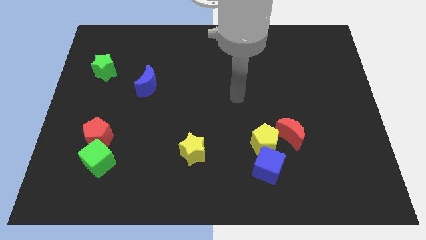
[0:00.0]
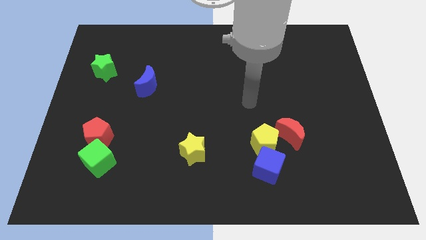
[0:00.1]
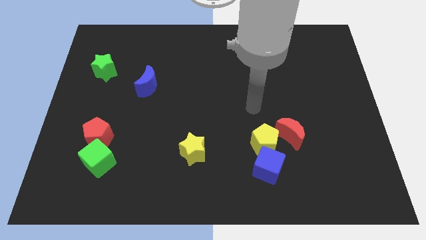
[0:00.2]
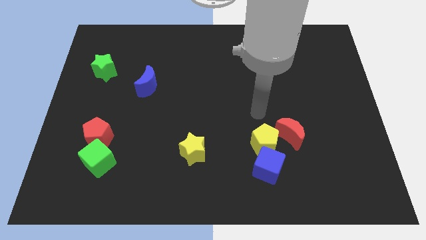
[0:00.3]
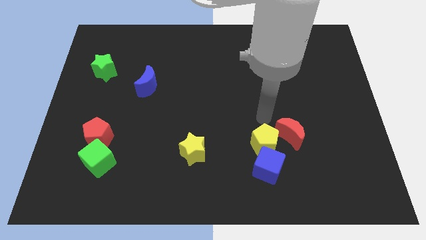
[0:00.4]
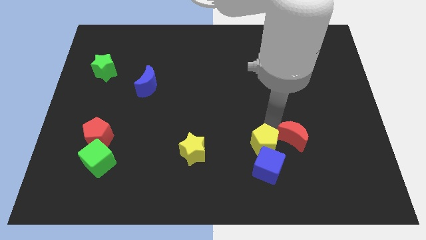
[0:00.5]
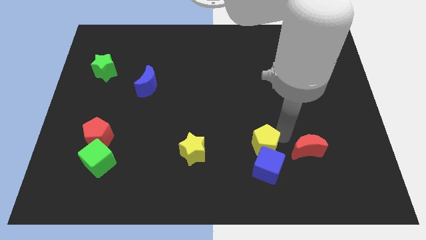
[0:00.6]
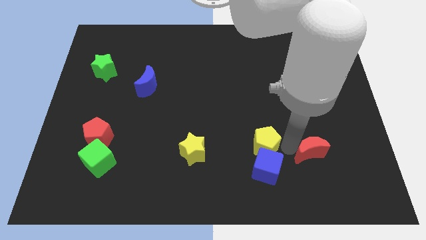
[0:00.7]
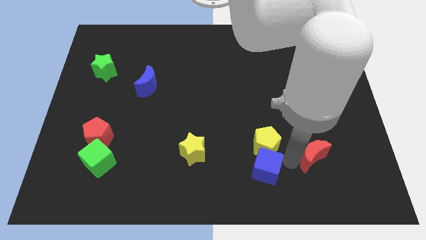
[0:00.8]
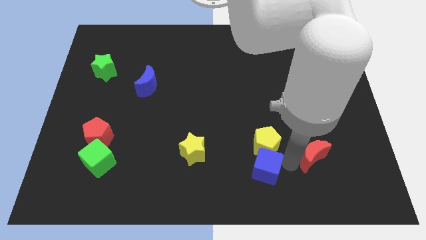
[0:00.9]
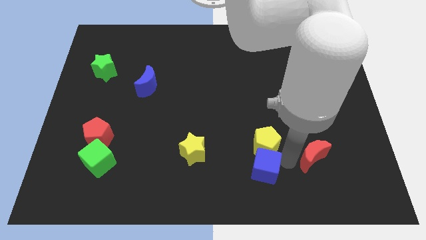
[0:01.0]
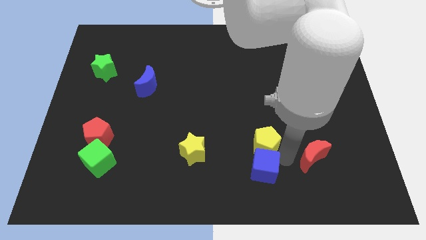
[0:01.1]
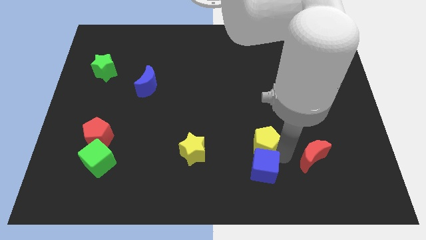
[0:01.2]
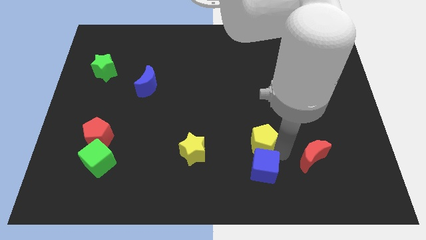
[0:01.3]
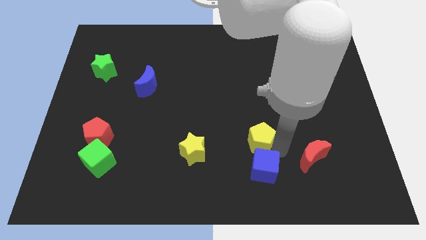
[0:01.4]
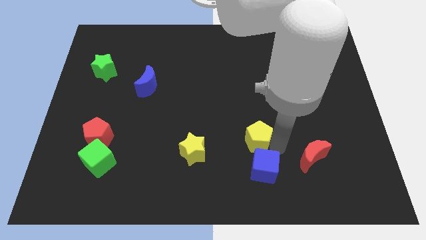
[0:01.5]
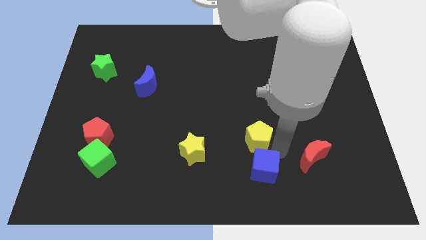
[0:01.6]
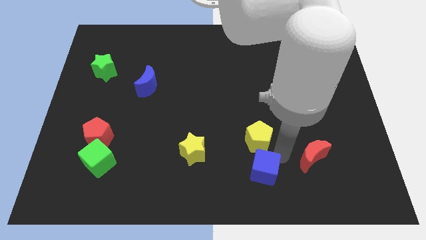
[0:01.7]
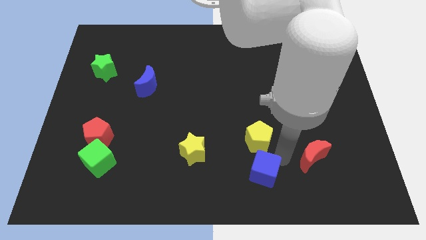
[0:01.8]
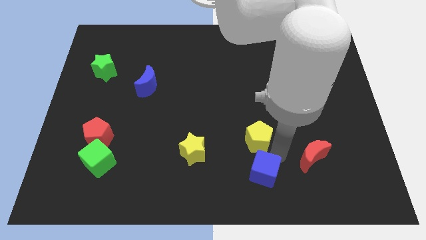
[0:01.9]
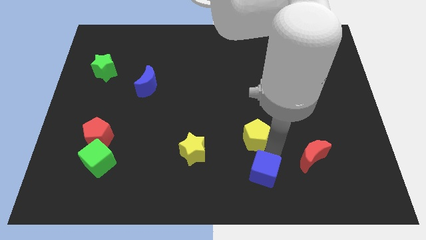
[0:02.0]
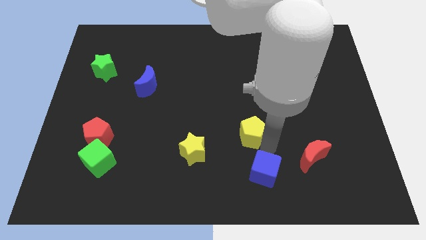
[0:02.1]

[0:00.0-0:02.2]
move the yellow pentagon away from the blue cube and red moon

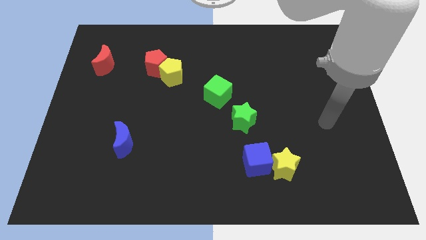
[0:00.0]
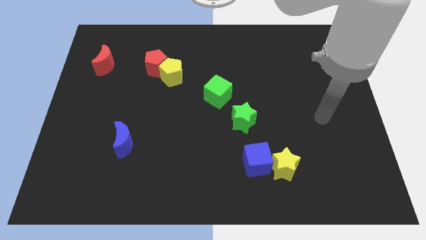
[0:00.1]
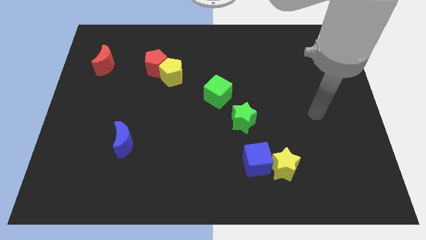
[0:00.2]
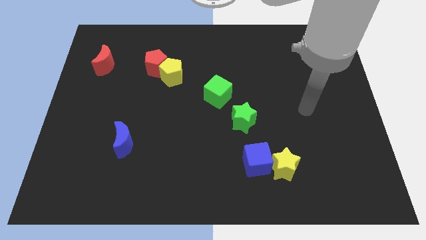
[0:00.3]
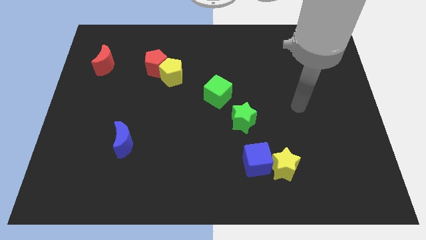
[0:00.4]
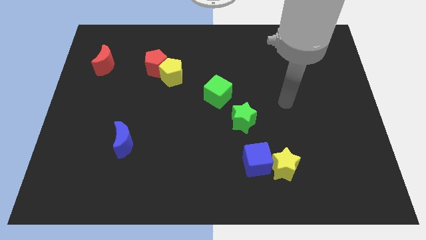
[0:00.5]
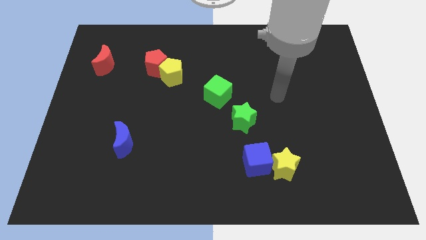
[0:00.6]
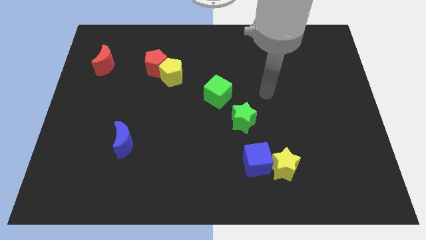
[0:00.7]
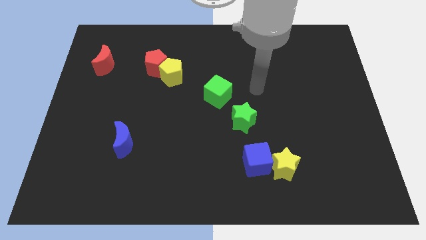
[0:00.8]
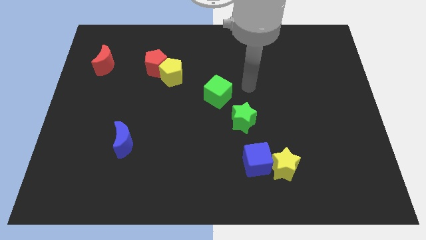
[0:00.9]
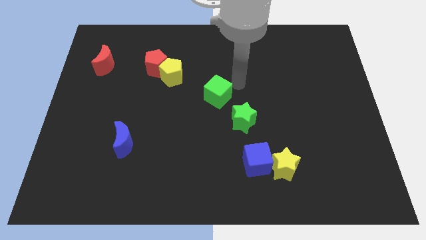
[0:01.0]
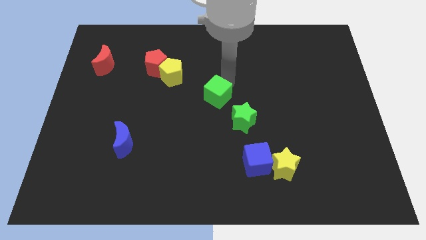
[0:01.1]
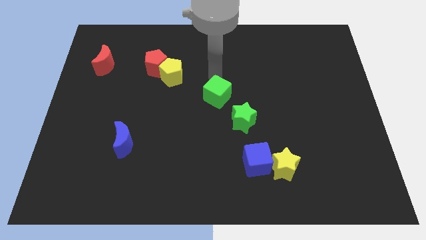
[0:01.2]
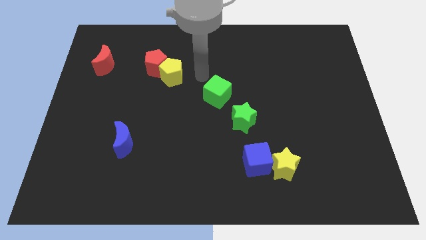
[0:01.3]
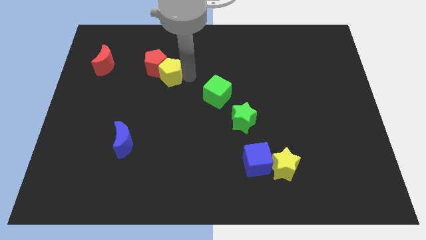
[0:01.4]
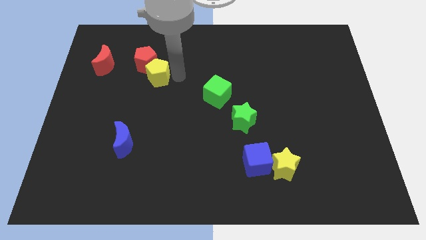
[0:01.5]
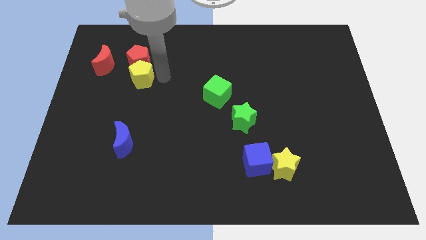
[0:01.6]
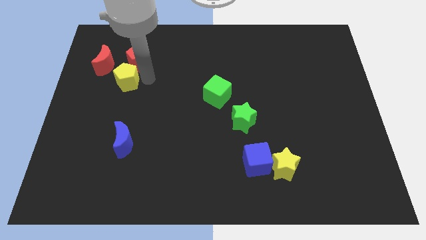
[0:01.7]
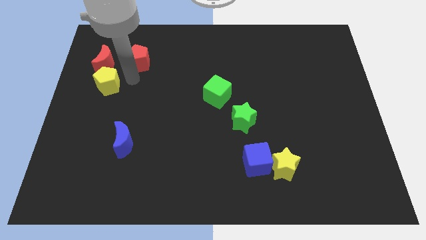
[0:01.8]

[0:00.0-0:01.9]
pull the red pentagon apart from the yellow pentagon

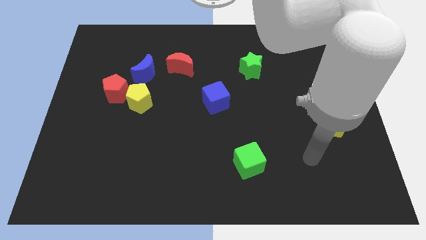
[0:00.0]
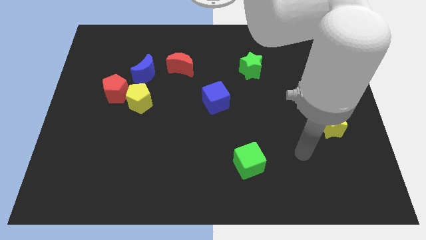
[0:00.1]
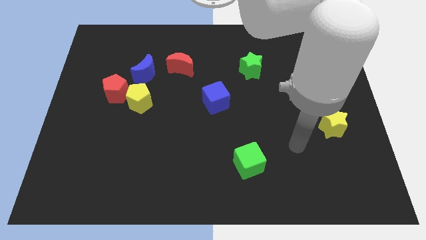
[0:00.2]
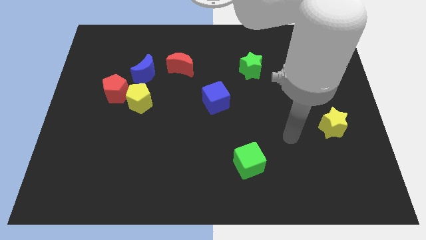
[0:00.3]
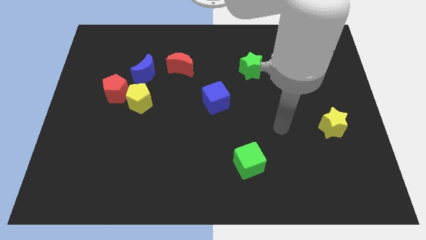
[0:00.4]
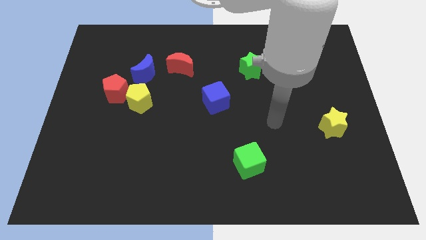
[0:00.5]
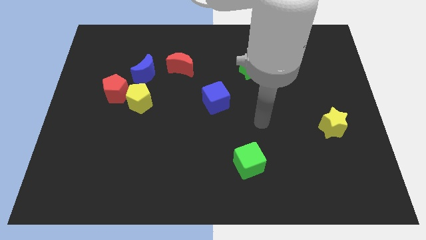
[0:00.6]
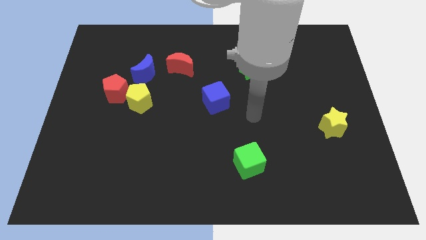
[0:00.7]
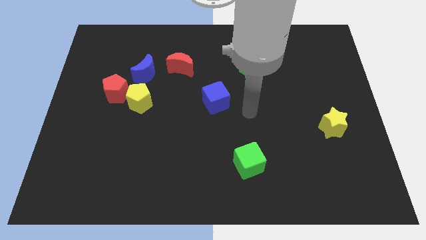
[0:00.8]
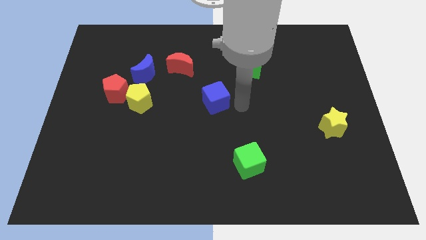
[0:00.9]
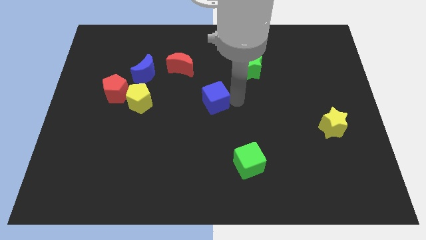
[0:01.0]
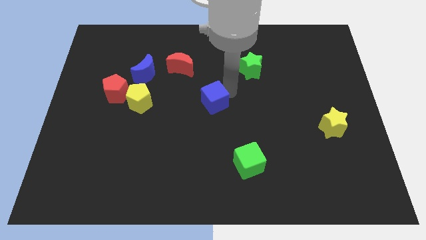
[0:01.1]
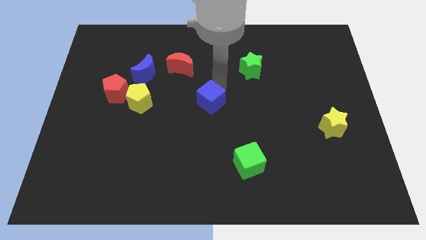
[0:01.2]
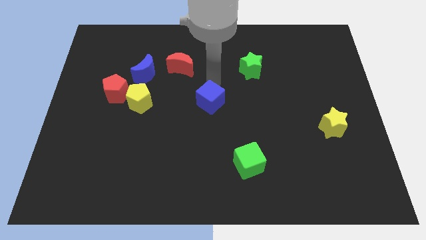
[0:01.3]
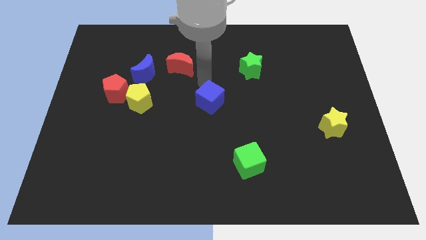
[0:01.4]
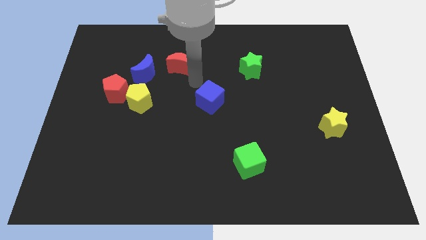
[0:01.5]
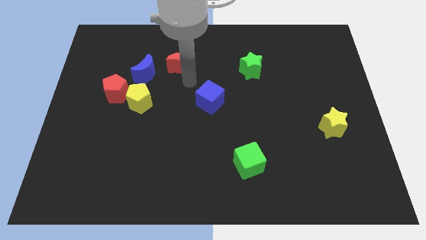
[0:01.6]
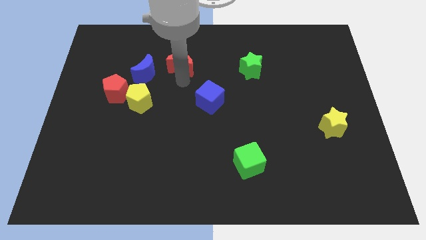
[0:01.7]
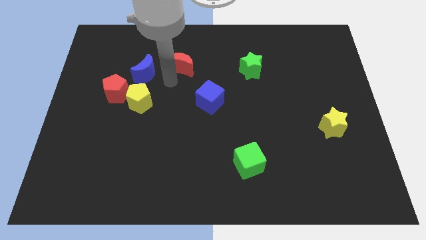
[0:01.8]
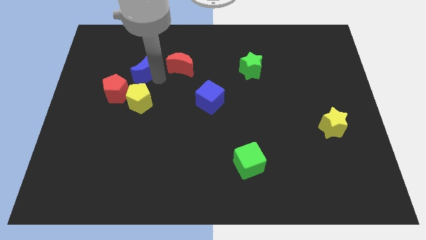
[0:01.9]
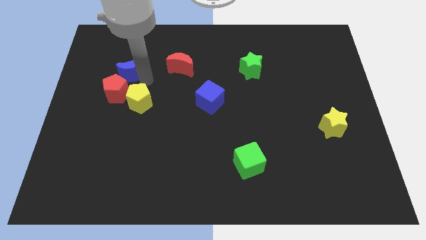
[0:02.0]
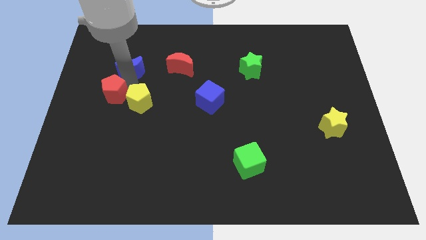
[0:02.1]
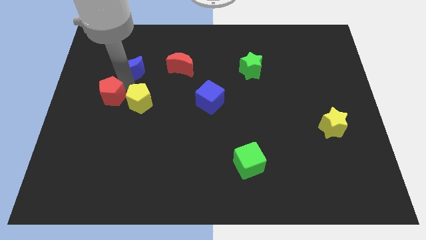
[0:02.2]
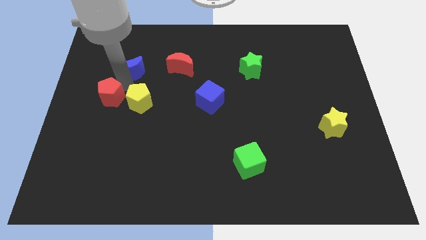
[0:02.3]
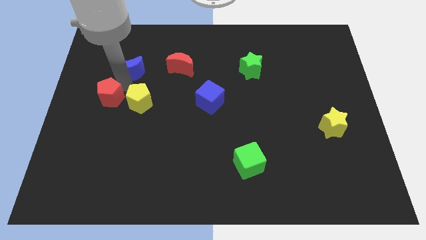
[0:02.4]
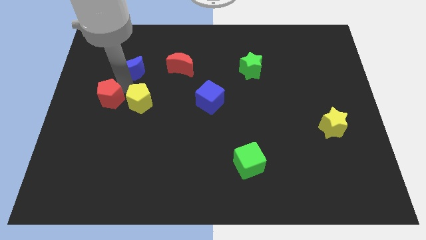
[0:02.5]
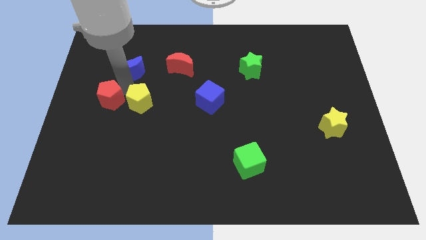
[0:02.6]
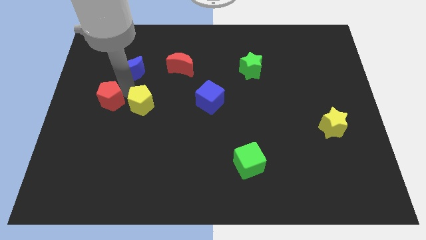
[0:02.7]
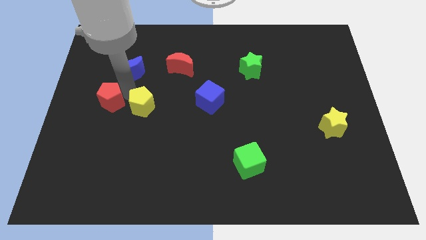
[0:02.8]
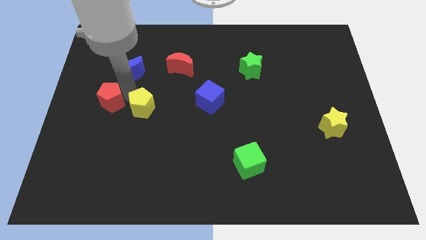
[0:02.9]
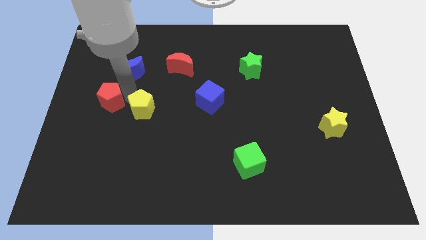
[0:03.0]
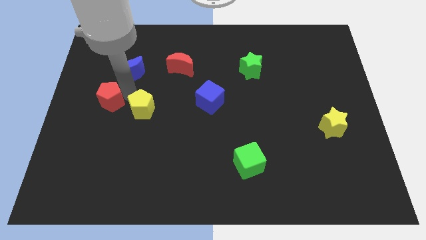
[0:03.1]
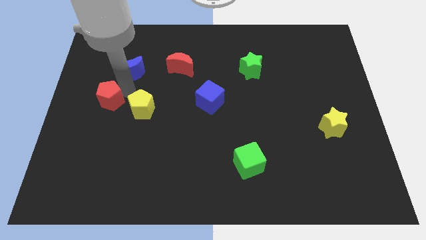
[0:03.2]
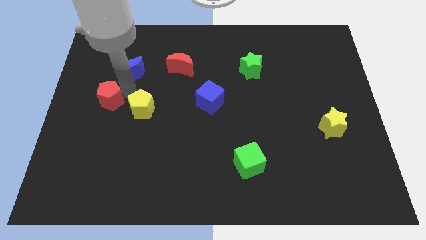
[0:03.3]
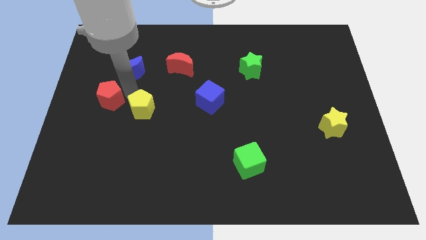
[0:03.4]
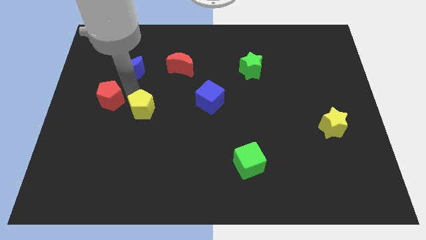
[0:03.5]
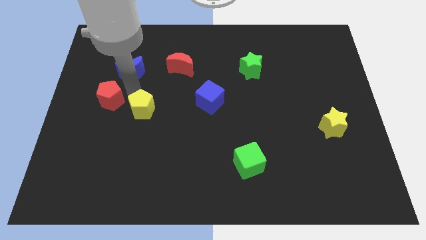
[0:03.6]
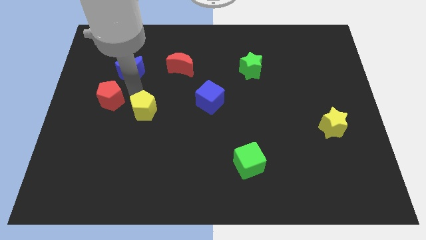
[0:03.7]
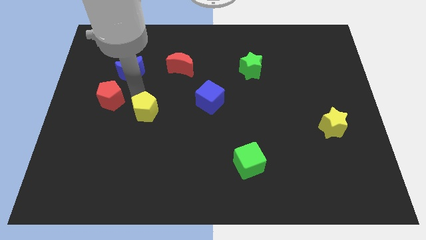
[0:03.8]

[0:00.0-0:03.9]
separate the yellow pentagon from the red pentagon and blue moon

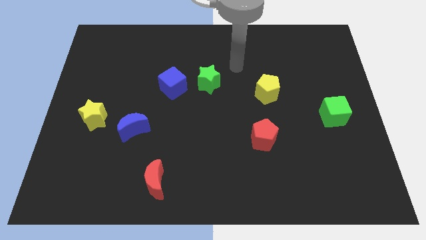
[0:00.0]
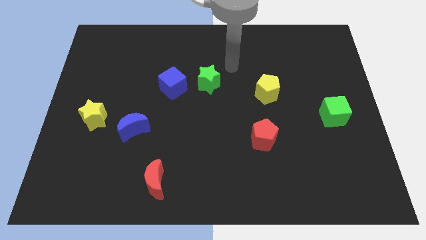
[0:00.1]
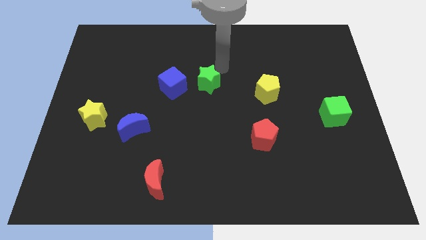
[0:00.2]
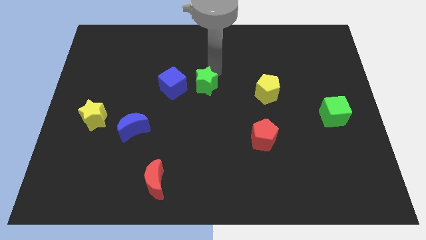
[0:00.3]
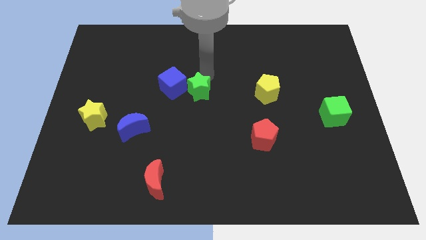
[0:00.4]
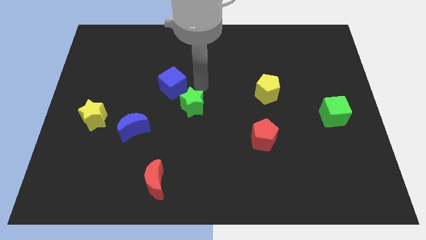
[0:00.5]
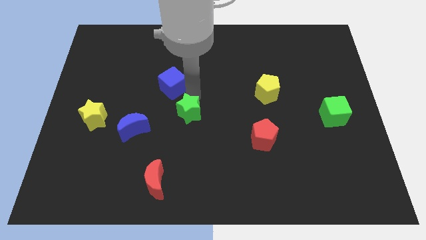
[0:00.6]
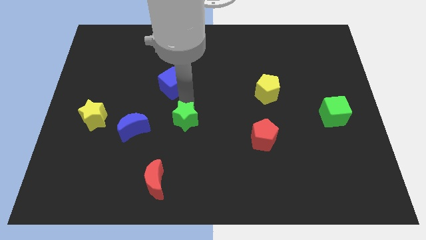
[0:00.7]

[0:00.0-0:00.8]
separate the blue cube from the green star

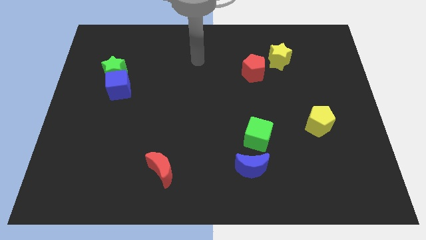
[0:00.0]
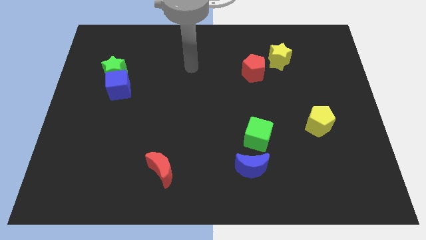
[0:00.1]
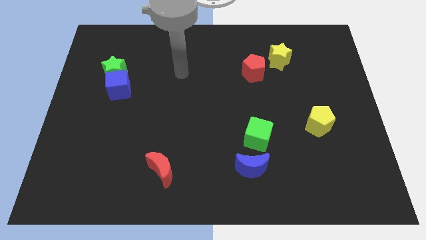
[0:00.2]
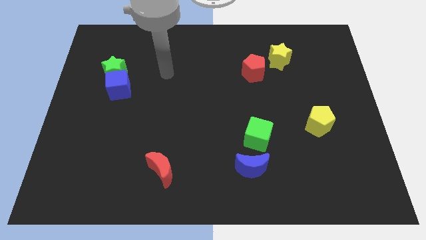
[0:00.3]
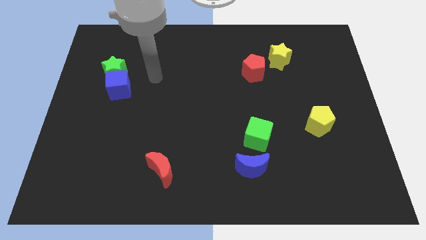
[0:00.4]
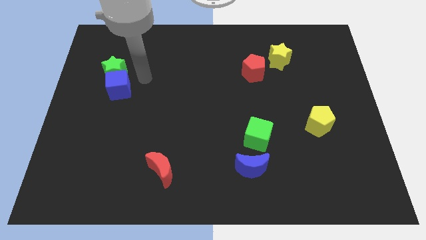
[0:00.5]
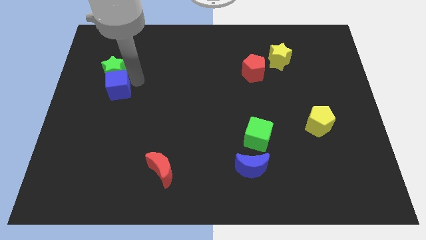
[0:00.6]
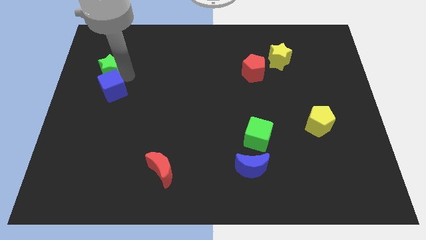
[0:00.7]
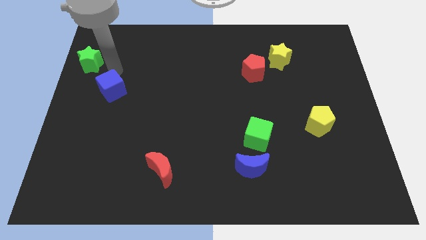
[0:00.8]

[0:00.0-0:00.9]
pull the blue cube apart from the green star
